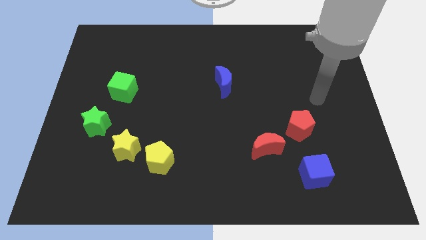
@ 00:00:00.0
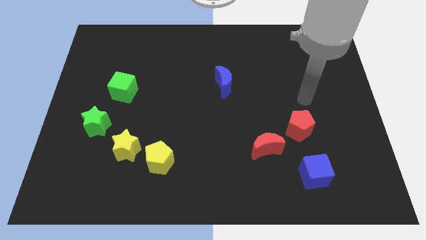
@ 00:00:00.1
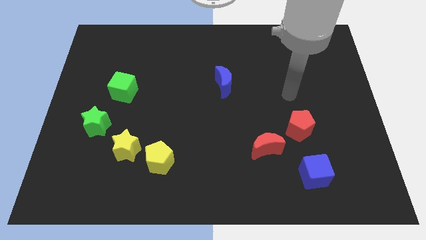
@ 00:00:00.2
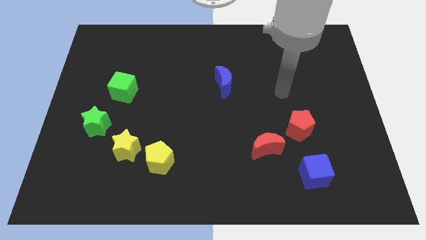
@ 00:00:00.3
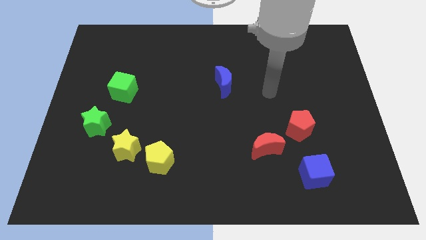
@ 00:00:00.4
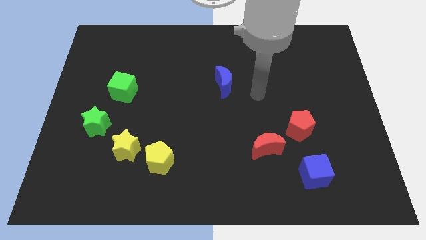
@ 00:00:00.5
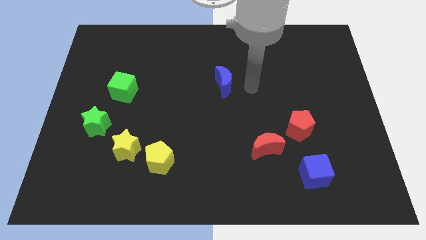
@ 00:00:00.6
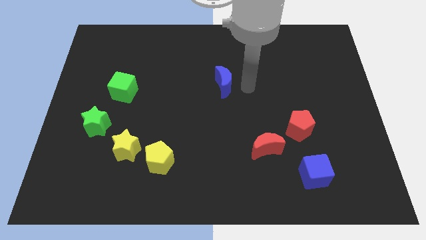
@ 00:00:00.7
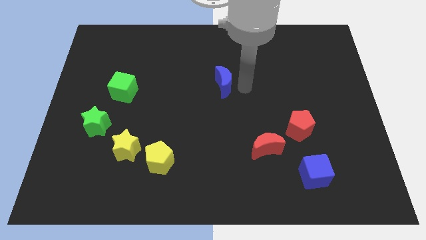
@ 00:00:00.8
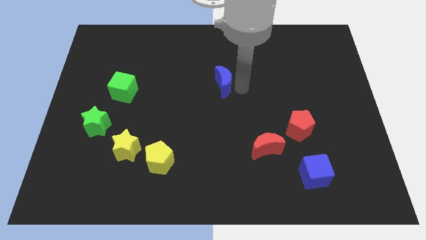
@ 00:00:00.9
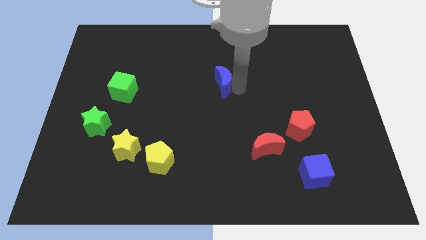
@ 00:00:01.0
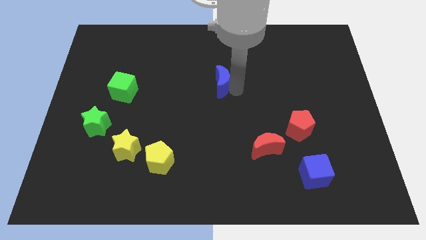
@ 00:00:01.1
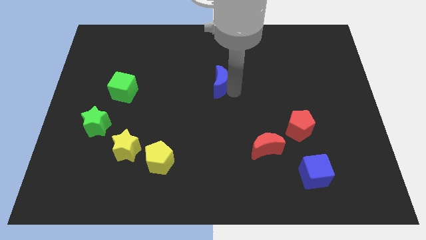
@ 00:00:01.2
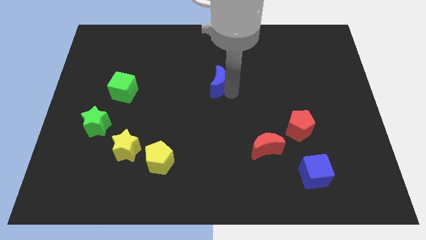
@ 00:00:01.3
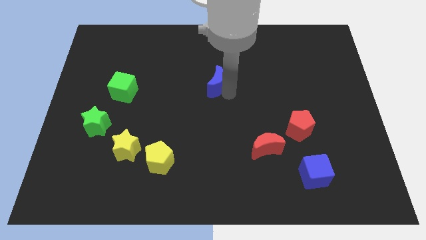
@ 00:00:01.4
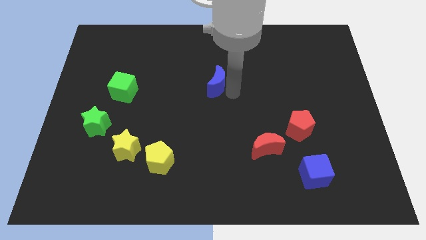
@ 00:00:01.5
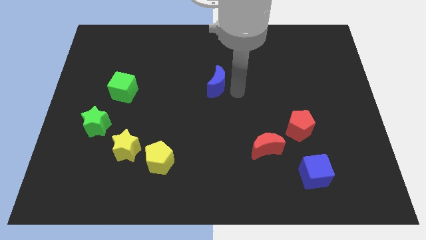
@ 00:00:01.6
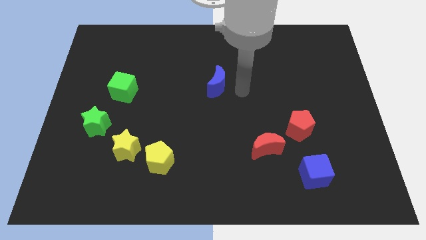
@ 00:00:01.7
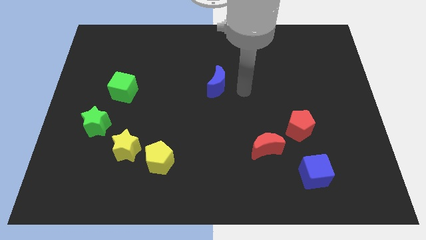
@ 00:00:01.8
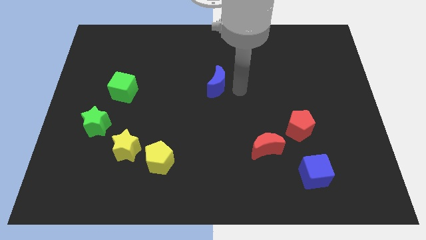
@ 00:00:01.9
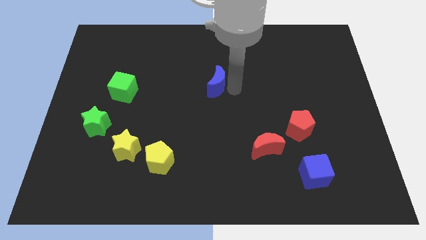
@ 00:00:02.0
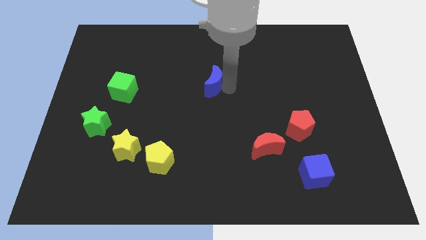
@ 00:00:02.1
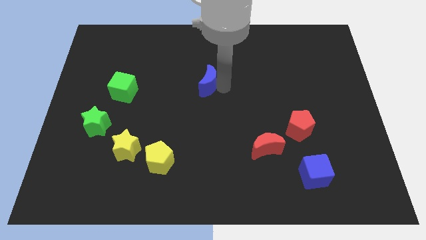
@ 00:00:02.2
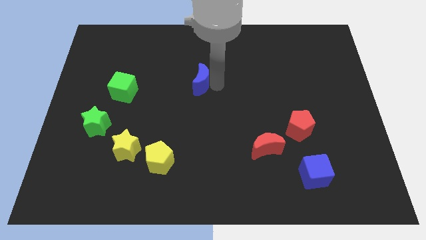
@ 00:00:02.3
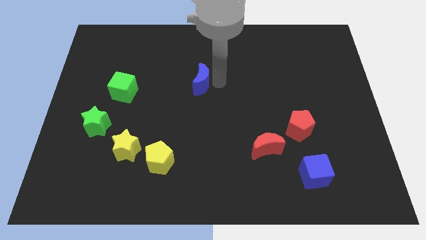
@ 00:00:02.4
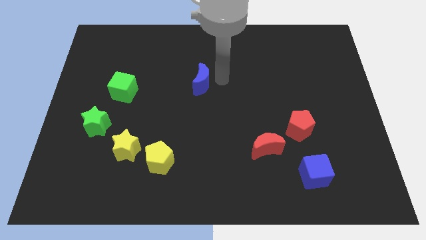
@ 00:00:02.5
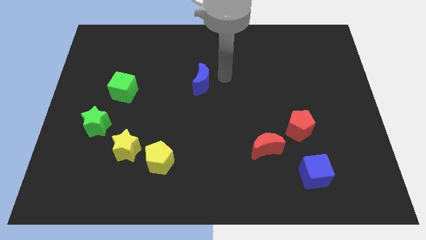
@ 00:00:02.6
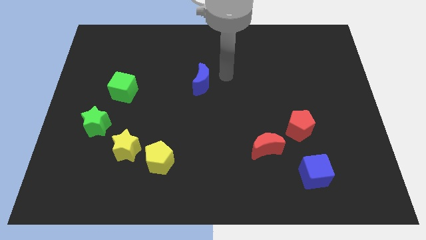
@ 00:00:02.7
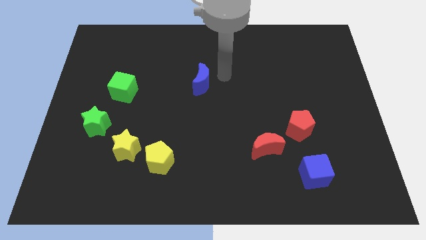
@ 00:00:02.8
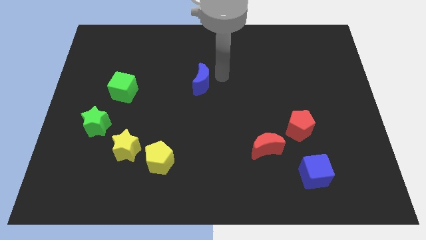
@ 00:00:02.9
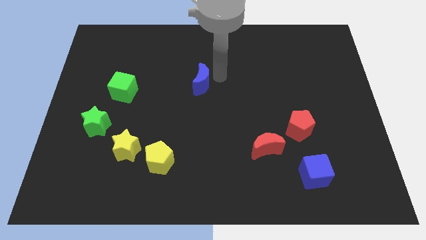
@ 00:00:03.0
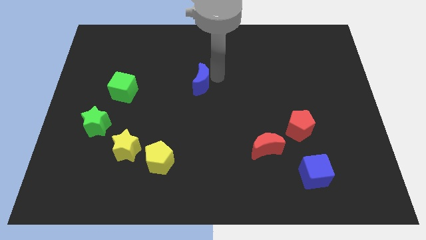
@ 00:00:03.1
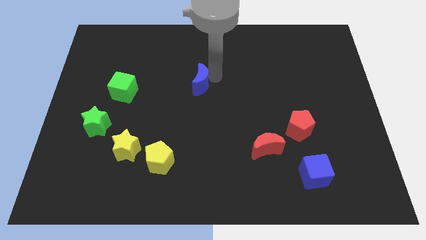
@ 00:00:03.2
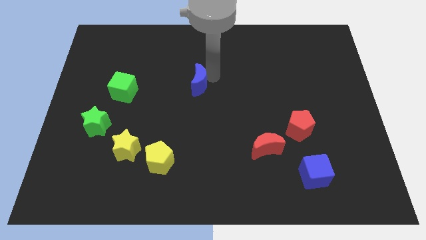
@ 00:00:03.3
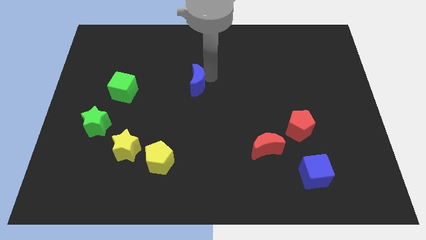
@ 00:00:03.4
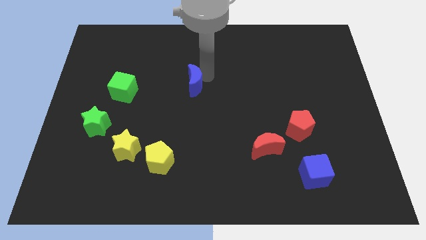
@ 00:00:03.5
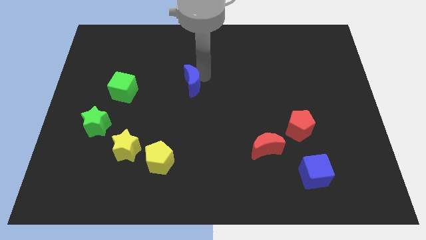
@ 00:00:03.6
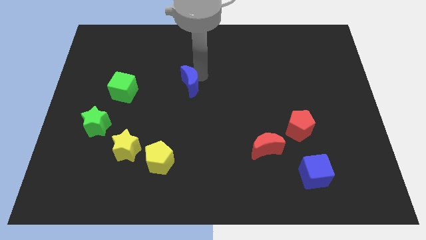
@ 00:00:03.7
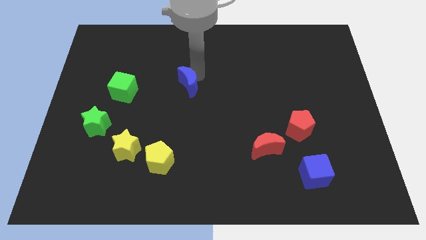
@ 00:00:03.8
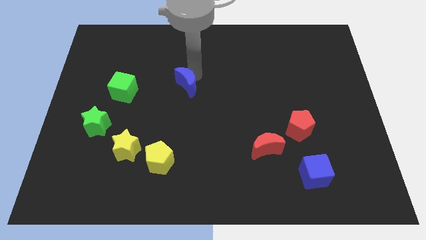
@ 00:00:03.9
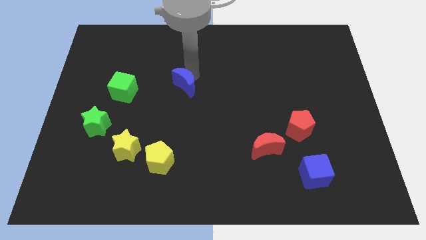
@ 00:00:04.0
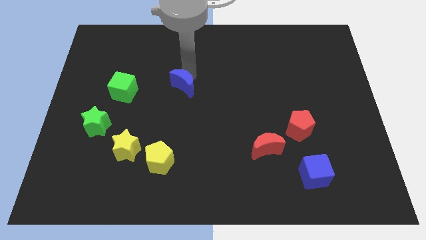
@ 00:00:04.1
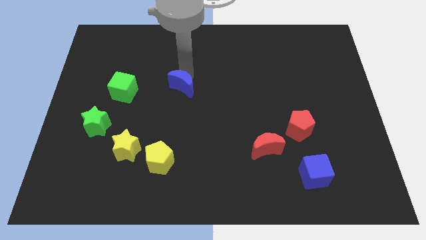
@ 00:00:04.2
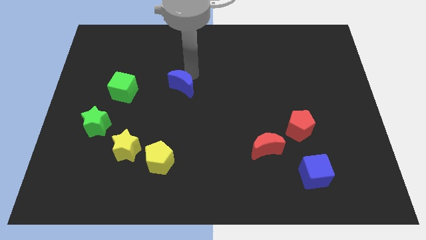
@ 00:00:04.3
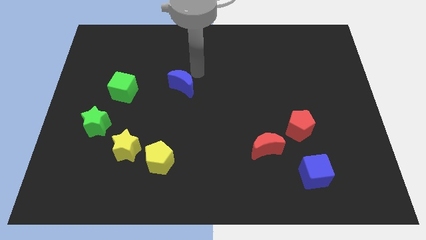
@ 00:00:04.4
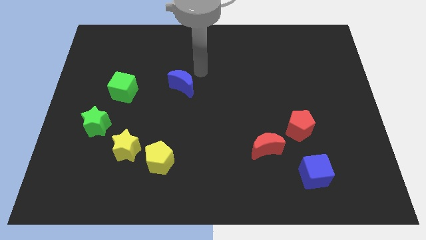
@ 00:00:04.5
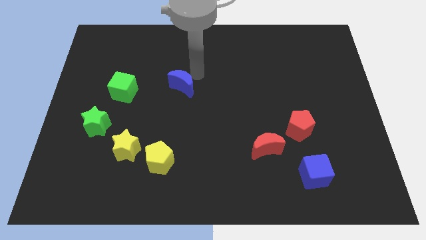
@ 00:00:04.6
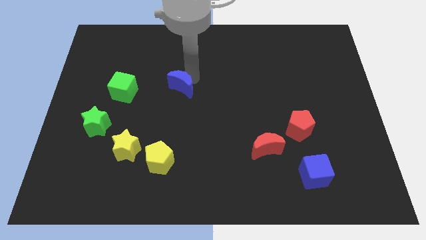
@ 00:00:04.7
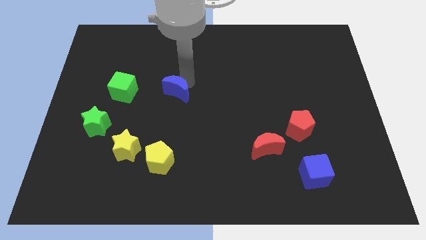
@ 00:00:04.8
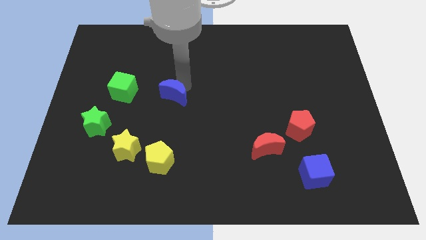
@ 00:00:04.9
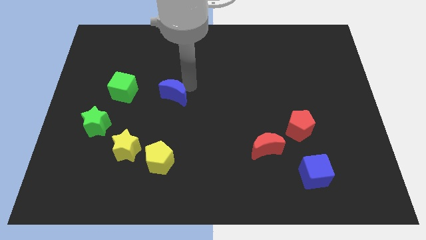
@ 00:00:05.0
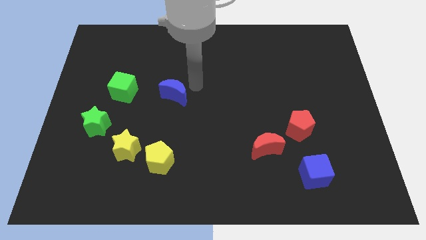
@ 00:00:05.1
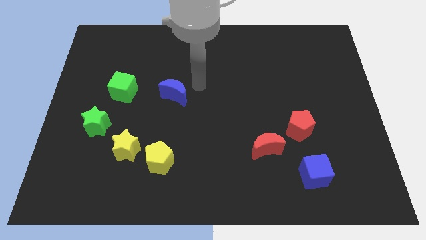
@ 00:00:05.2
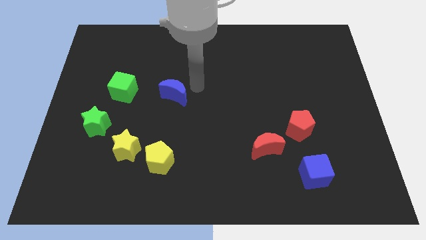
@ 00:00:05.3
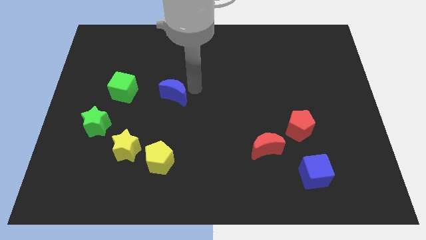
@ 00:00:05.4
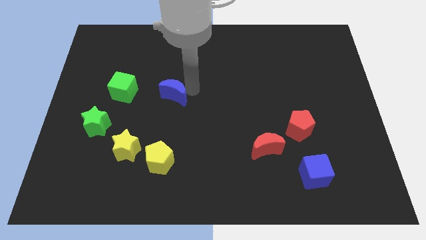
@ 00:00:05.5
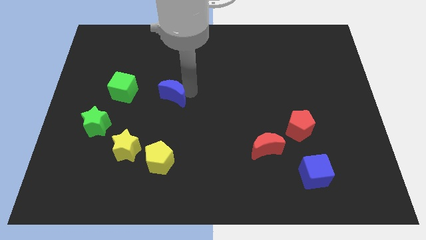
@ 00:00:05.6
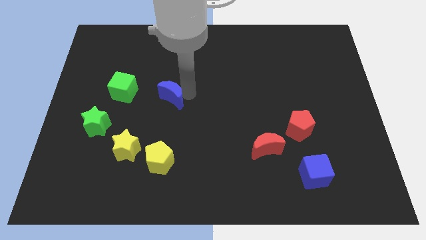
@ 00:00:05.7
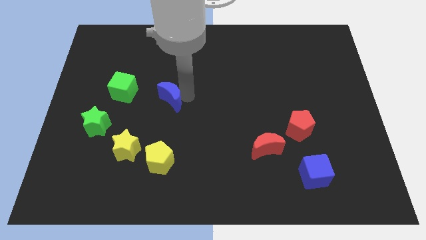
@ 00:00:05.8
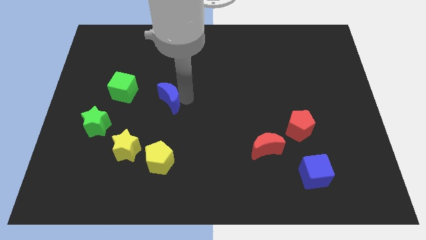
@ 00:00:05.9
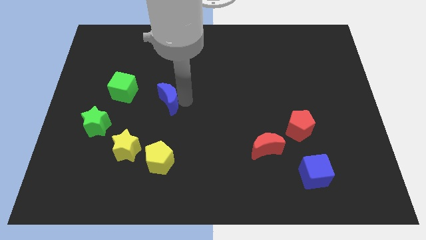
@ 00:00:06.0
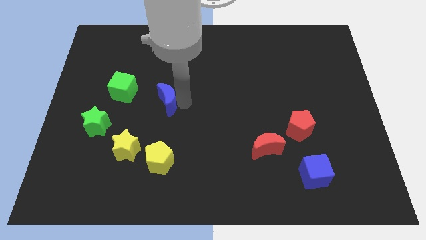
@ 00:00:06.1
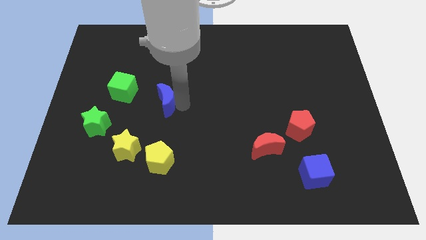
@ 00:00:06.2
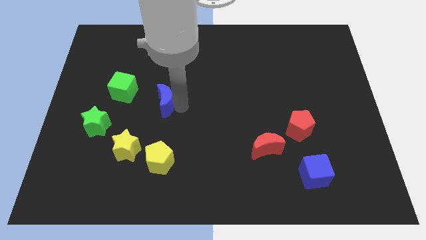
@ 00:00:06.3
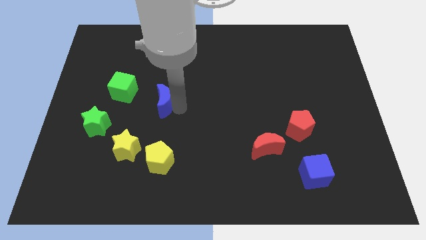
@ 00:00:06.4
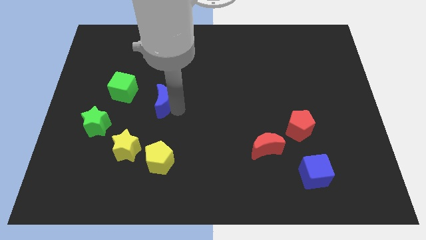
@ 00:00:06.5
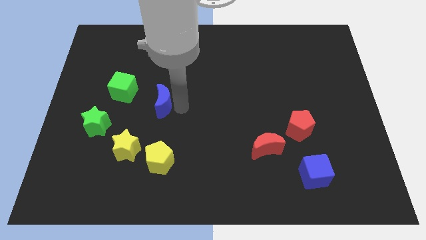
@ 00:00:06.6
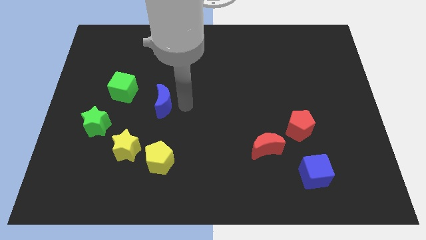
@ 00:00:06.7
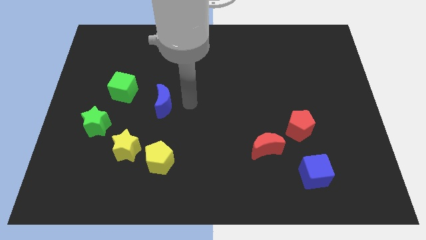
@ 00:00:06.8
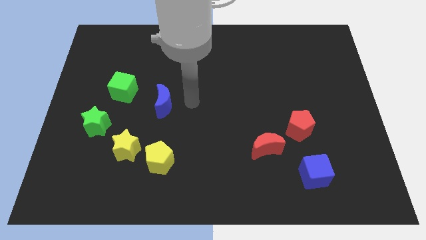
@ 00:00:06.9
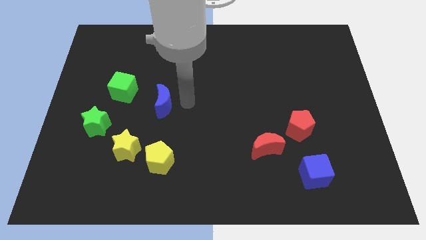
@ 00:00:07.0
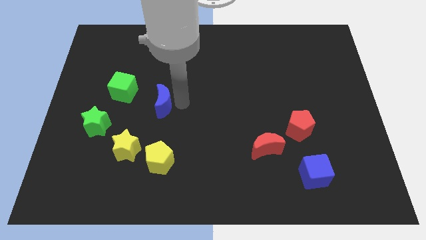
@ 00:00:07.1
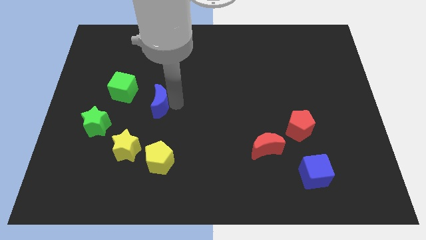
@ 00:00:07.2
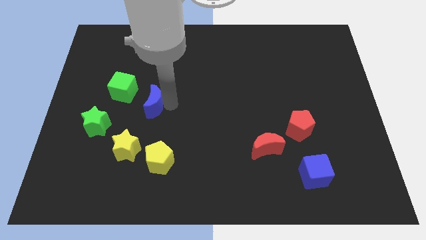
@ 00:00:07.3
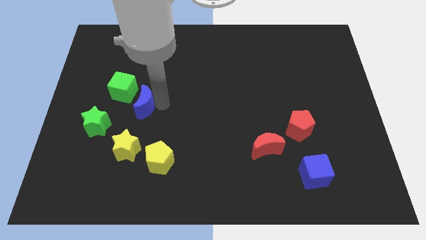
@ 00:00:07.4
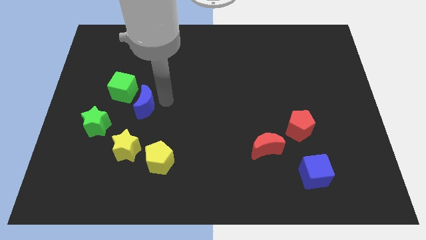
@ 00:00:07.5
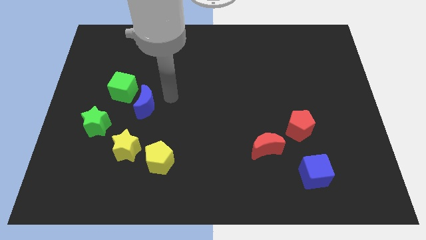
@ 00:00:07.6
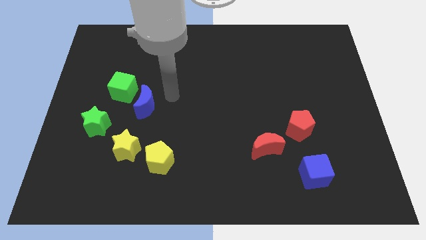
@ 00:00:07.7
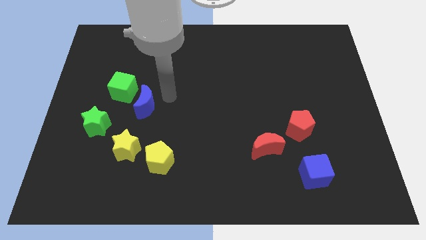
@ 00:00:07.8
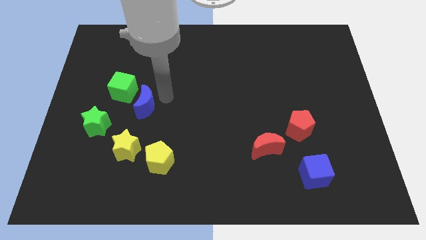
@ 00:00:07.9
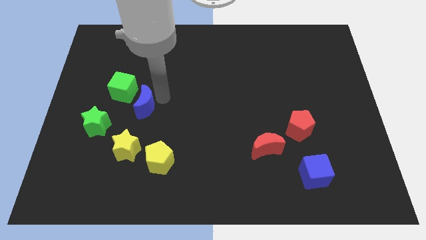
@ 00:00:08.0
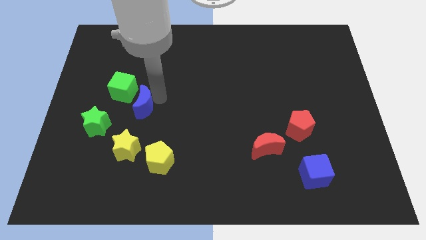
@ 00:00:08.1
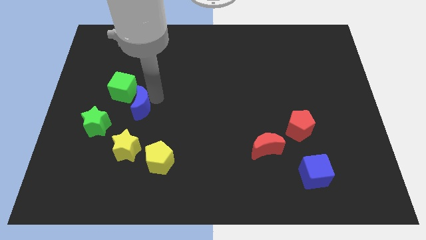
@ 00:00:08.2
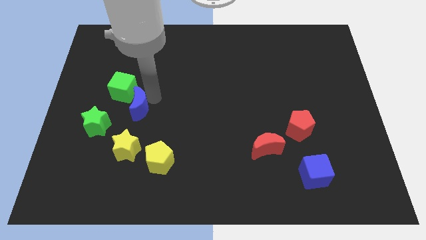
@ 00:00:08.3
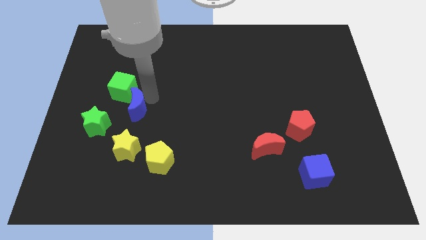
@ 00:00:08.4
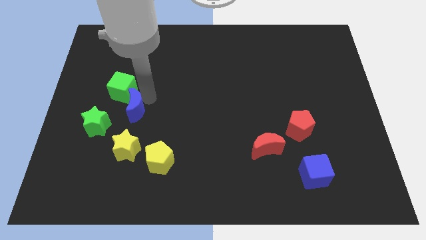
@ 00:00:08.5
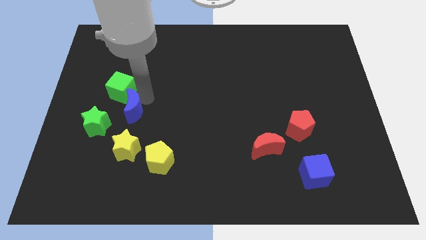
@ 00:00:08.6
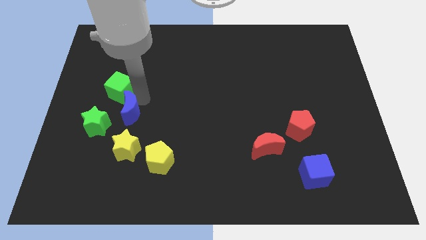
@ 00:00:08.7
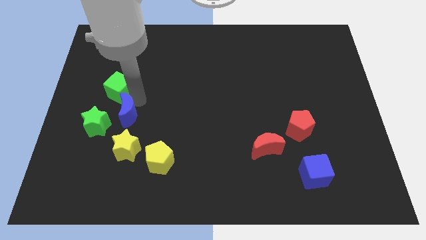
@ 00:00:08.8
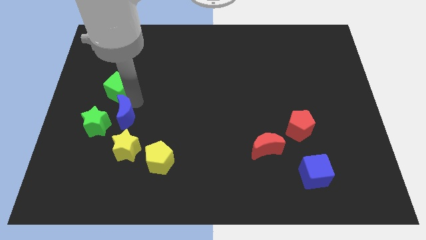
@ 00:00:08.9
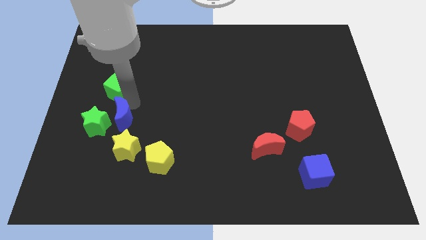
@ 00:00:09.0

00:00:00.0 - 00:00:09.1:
slide the blue moon close to the green star
